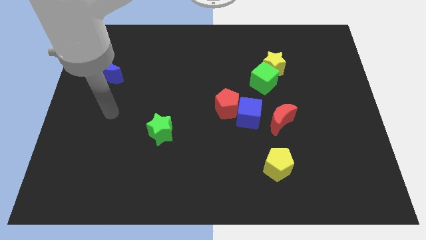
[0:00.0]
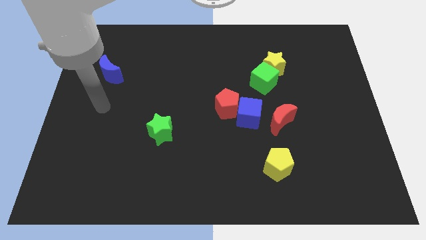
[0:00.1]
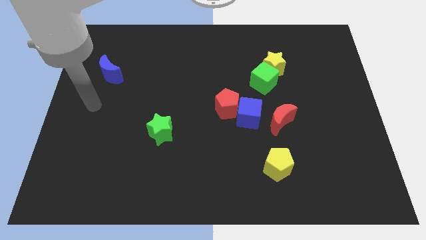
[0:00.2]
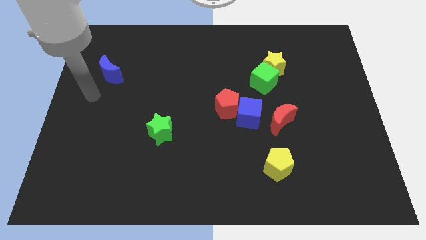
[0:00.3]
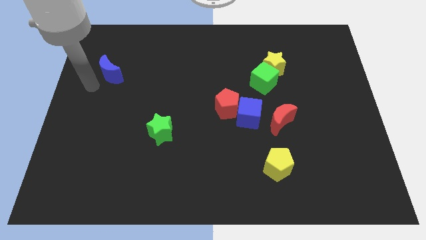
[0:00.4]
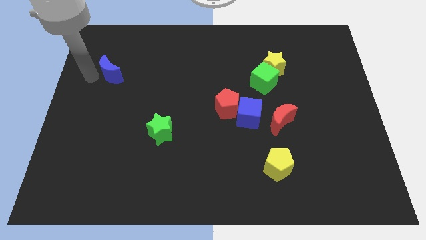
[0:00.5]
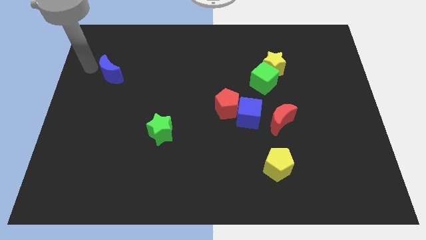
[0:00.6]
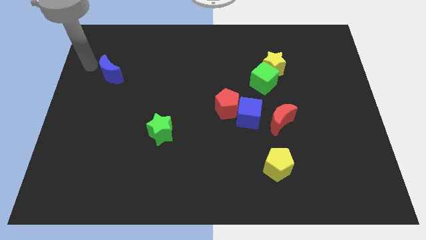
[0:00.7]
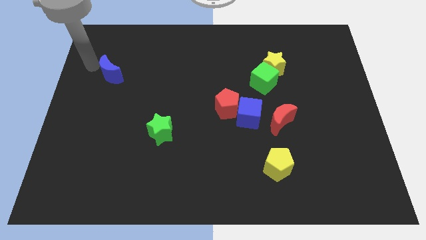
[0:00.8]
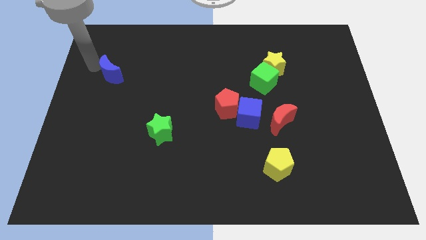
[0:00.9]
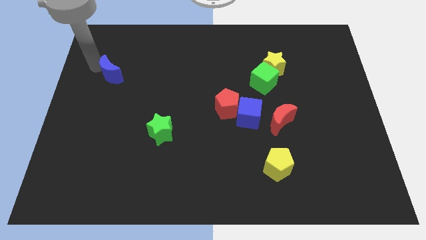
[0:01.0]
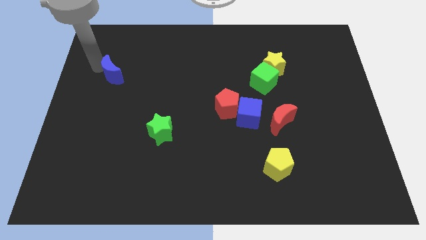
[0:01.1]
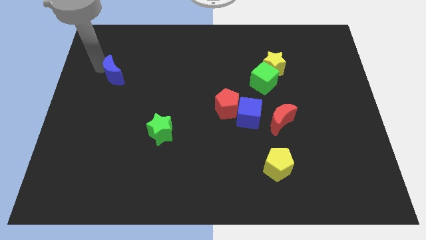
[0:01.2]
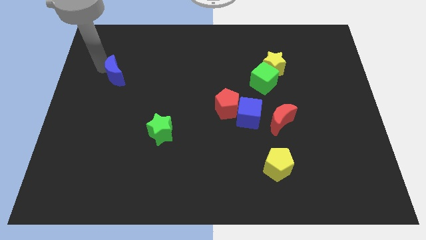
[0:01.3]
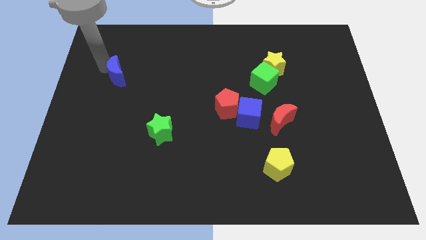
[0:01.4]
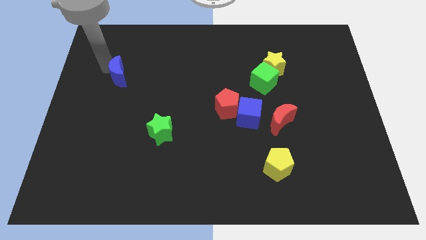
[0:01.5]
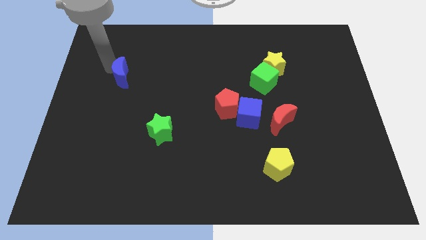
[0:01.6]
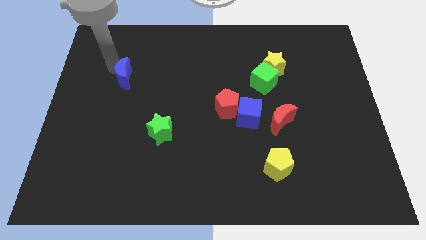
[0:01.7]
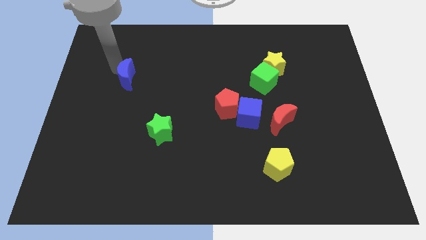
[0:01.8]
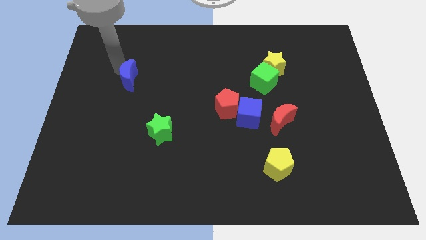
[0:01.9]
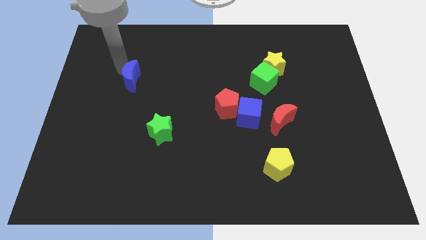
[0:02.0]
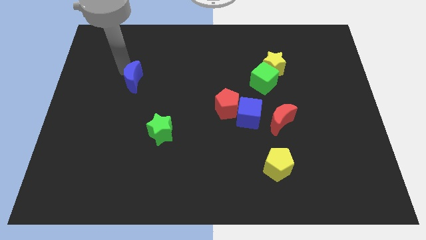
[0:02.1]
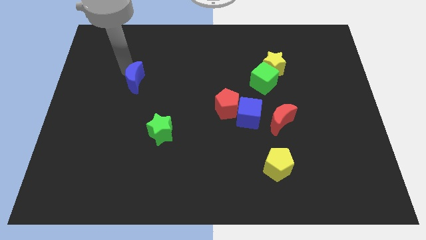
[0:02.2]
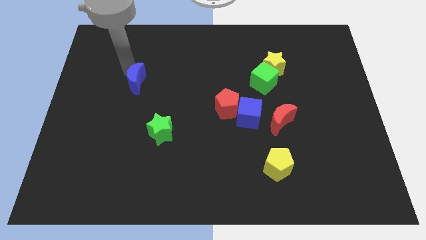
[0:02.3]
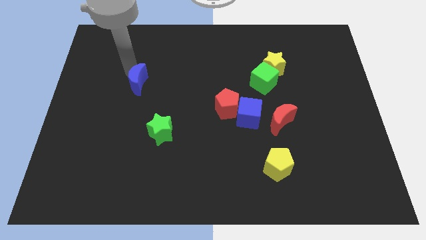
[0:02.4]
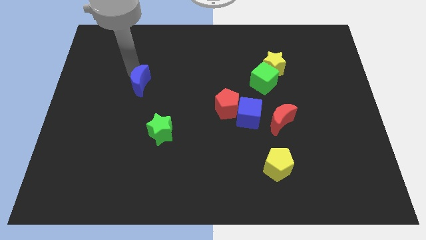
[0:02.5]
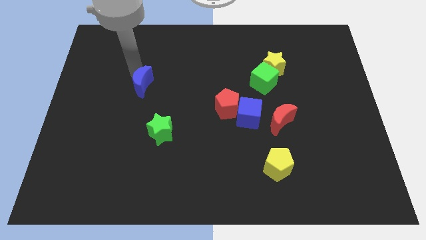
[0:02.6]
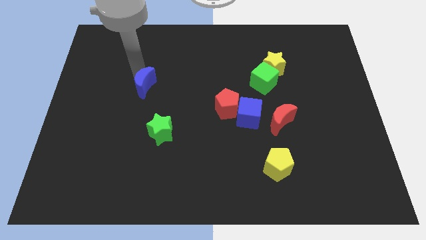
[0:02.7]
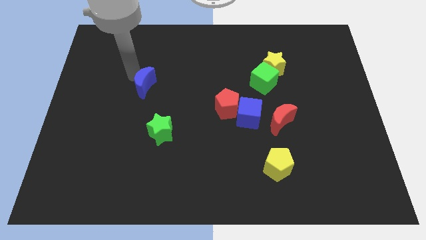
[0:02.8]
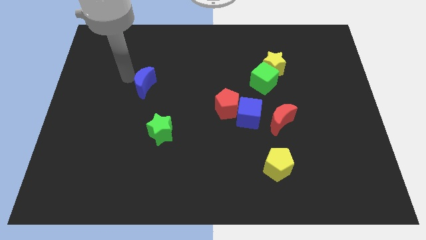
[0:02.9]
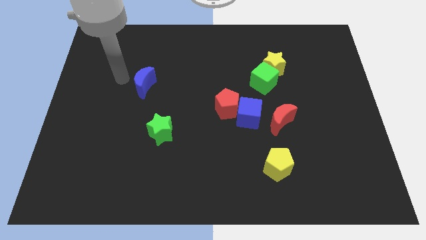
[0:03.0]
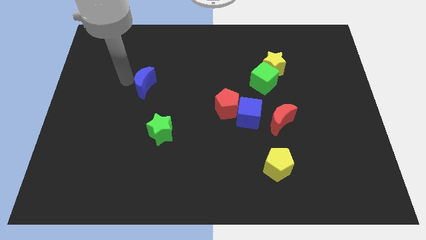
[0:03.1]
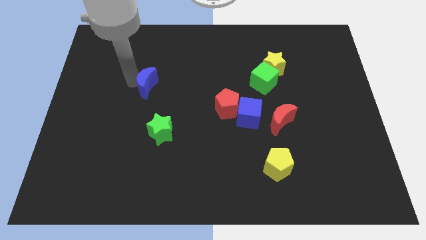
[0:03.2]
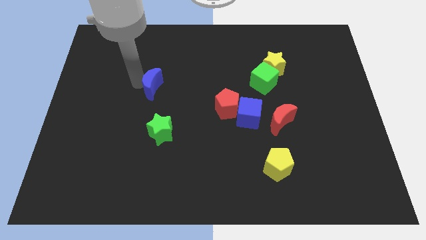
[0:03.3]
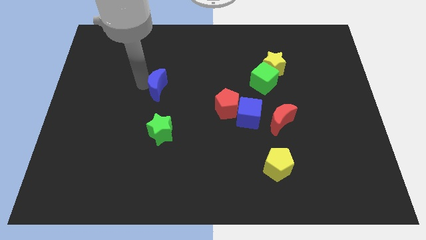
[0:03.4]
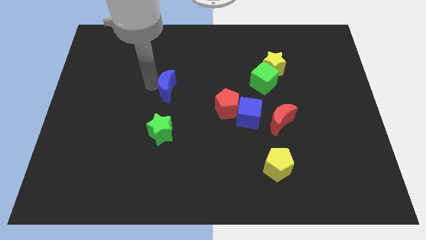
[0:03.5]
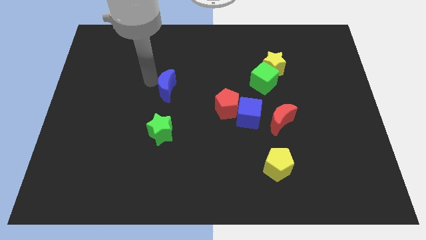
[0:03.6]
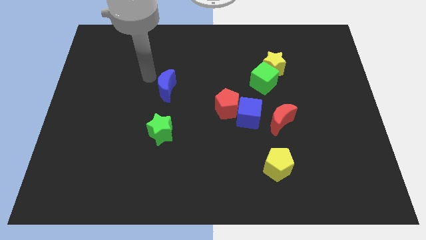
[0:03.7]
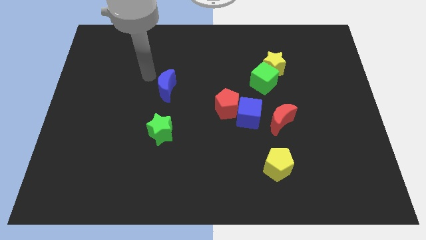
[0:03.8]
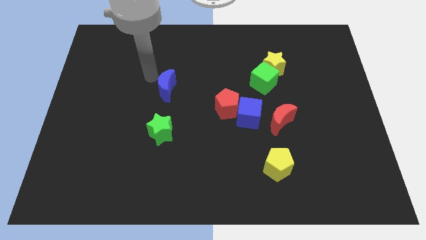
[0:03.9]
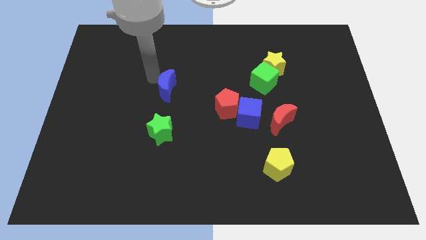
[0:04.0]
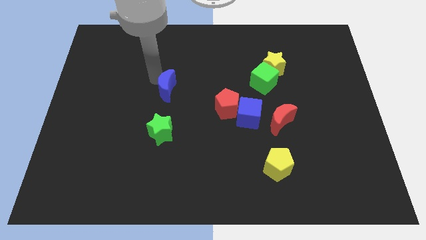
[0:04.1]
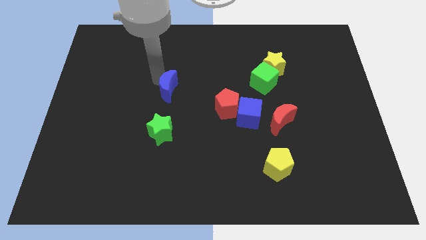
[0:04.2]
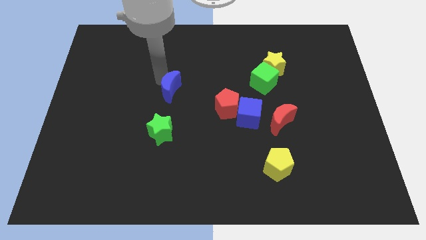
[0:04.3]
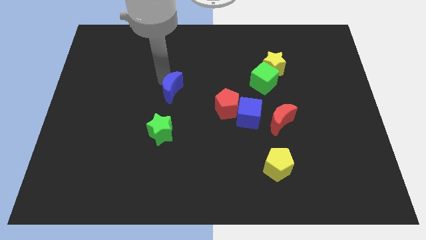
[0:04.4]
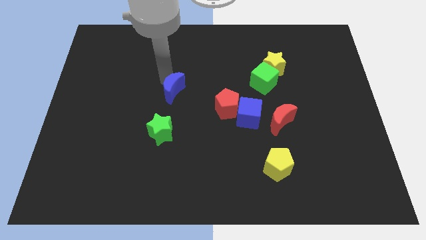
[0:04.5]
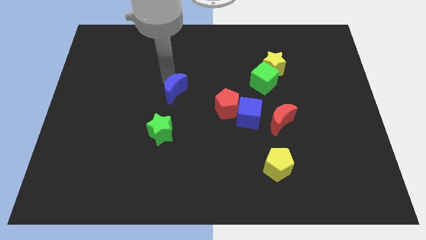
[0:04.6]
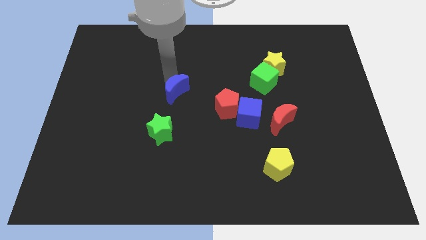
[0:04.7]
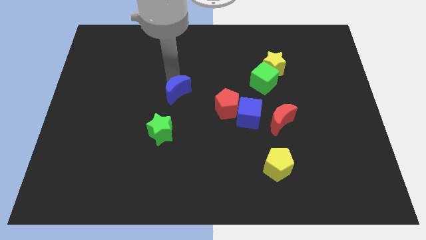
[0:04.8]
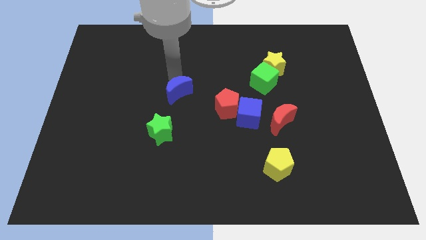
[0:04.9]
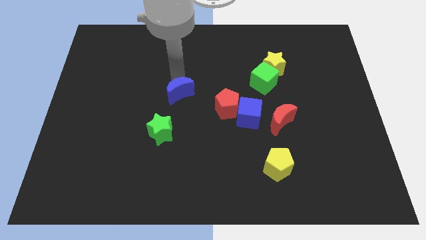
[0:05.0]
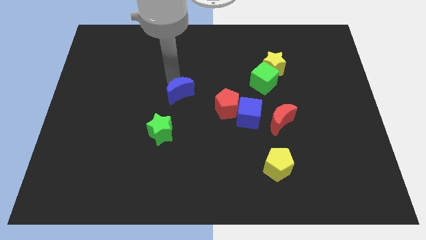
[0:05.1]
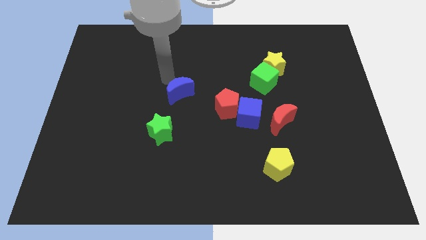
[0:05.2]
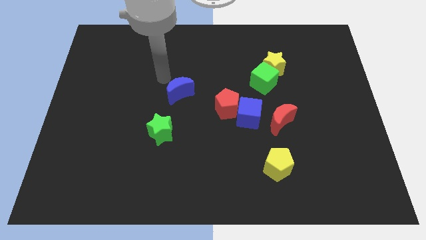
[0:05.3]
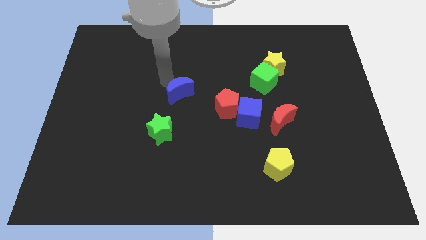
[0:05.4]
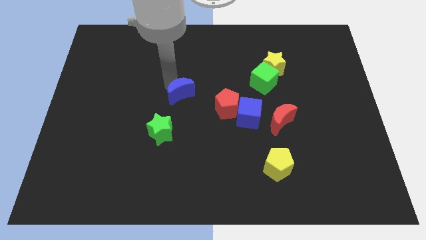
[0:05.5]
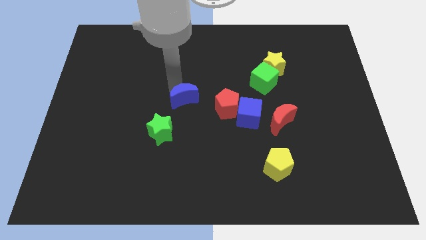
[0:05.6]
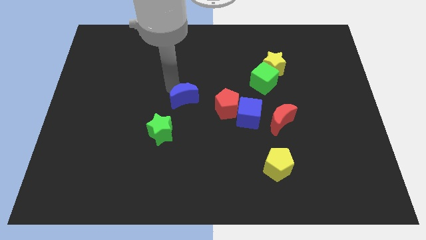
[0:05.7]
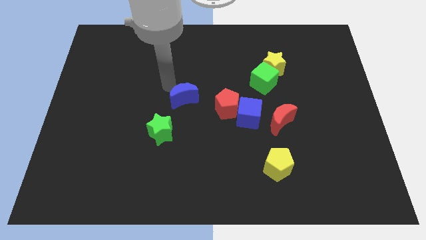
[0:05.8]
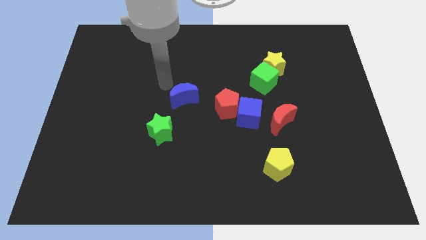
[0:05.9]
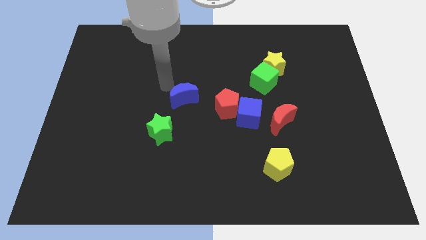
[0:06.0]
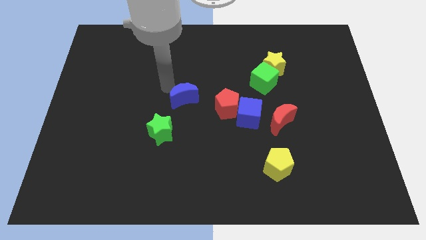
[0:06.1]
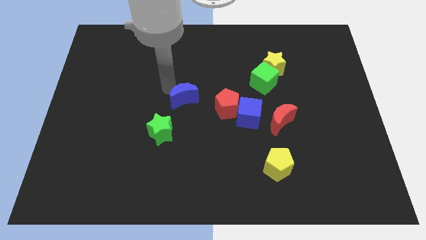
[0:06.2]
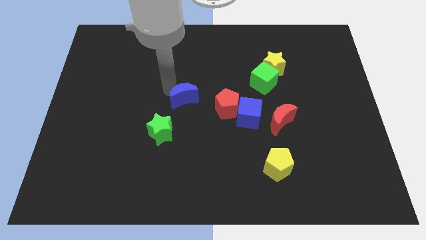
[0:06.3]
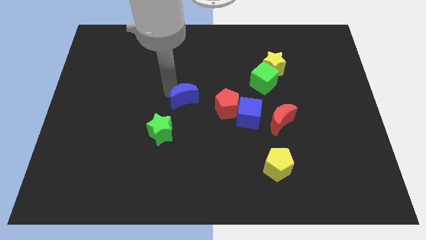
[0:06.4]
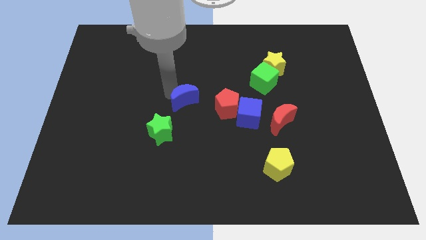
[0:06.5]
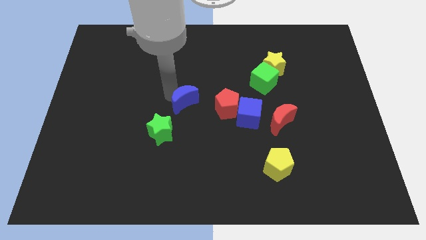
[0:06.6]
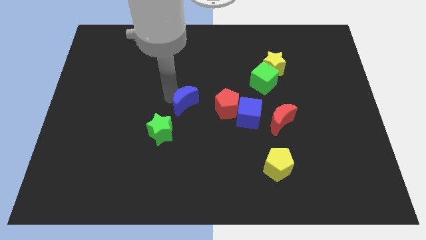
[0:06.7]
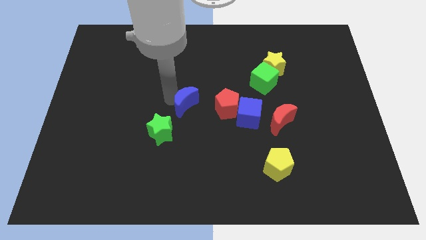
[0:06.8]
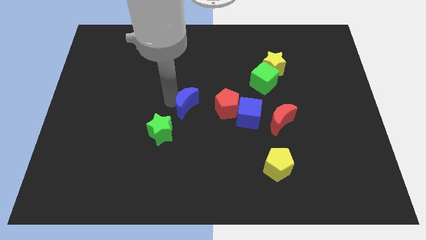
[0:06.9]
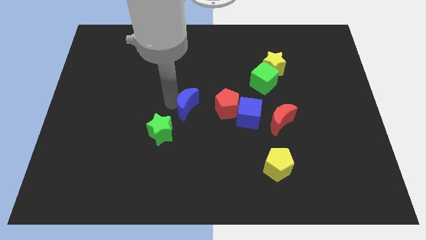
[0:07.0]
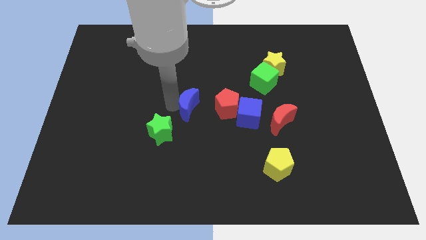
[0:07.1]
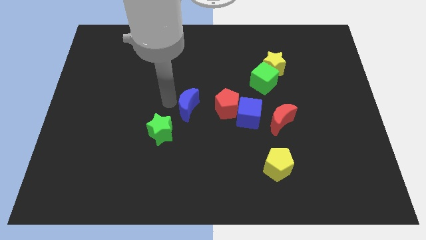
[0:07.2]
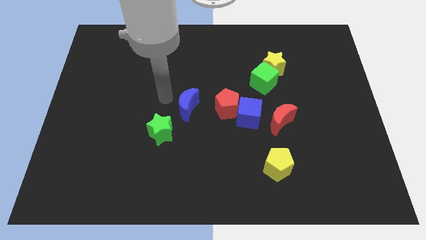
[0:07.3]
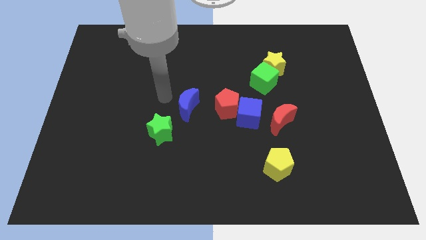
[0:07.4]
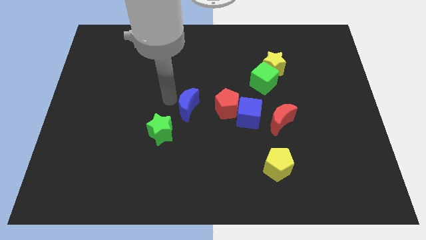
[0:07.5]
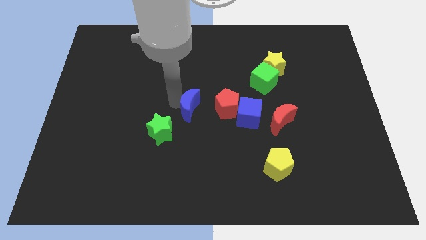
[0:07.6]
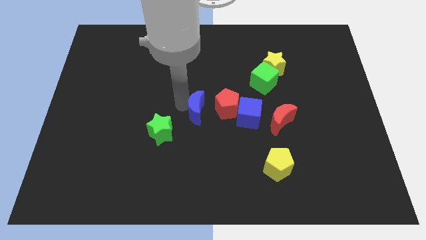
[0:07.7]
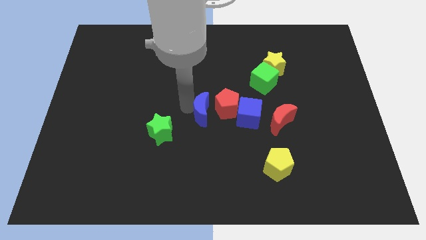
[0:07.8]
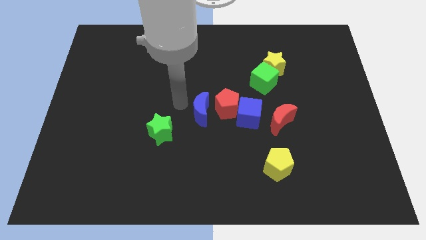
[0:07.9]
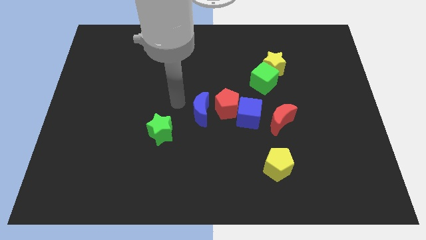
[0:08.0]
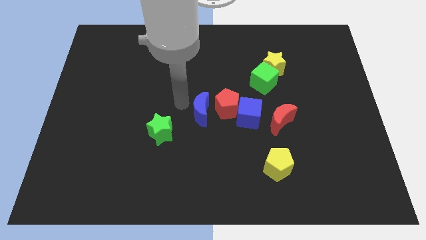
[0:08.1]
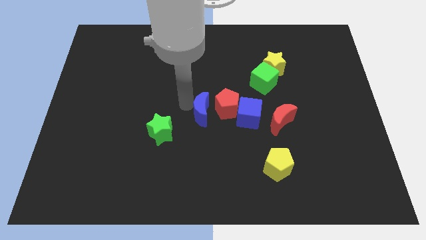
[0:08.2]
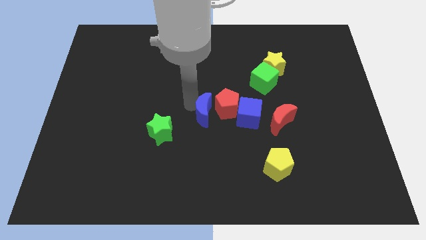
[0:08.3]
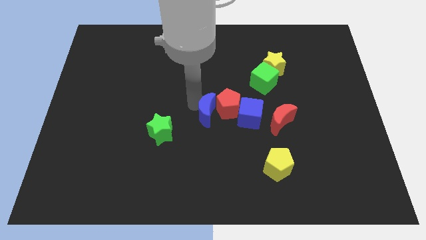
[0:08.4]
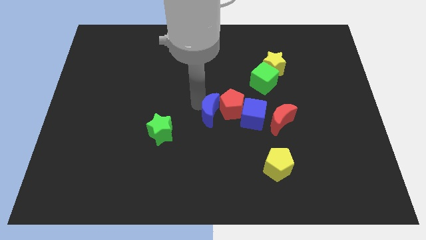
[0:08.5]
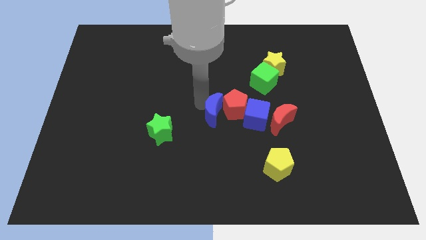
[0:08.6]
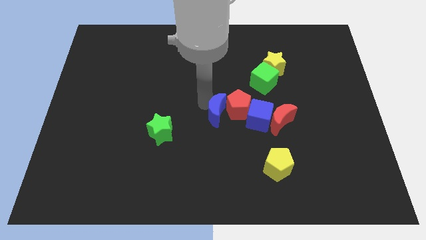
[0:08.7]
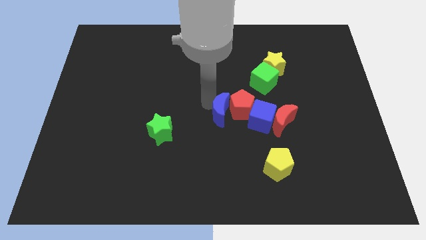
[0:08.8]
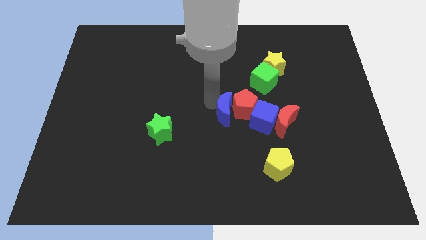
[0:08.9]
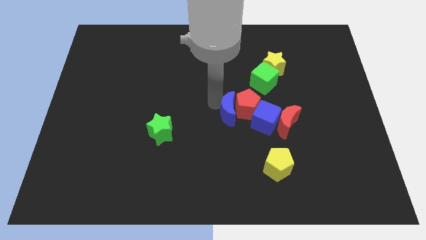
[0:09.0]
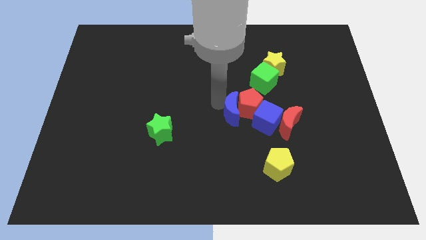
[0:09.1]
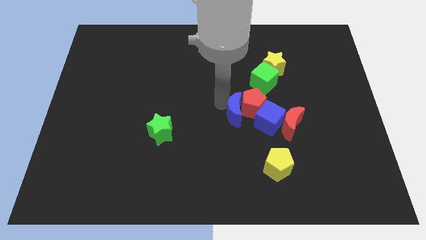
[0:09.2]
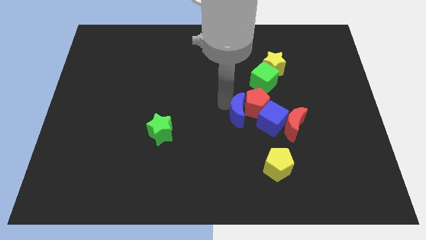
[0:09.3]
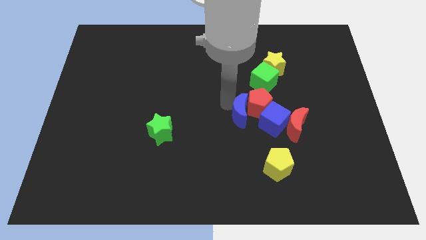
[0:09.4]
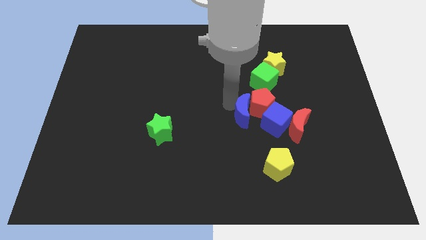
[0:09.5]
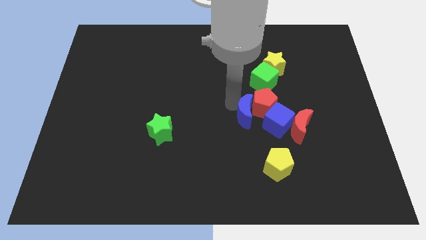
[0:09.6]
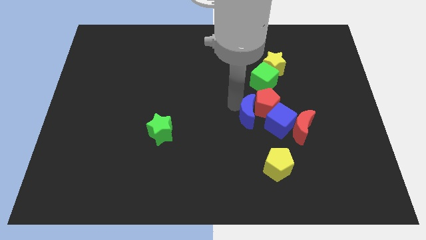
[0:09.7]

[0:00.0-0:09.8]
move the blue moon below the green cube
